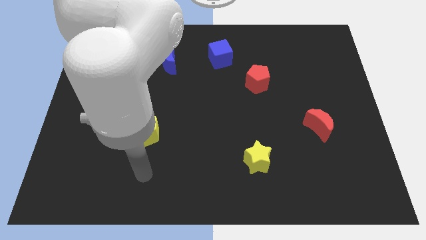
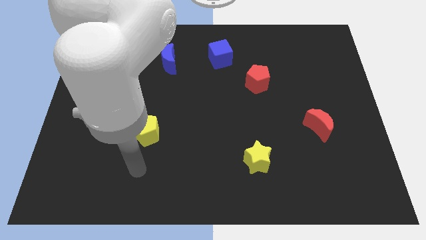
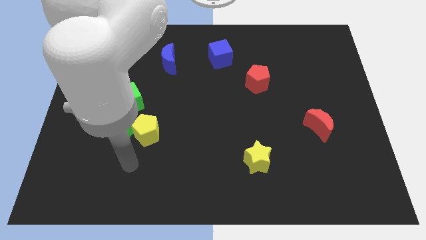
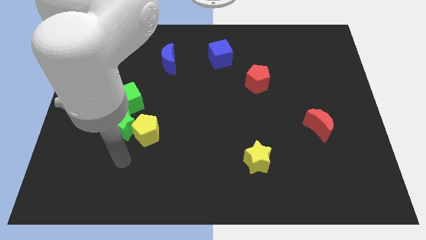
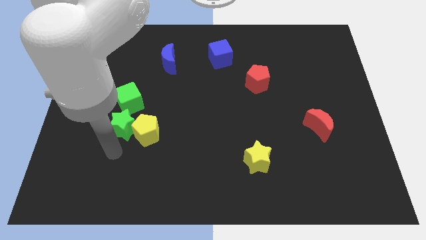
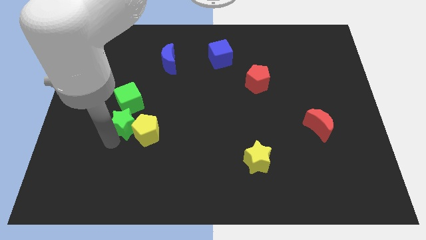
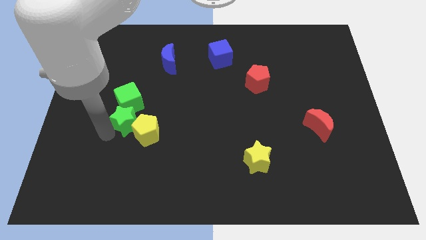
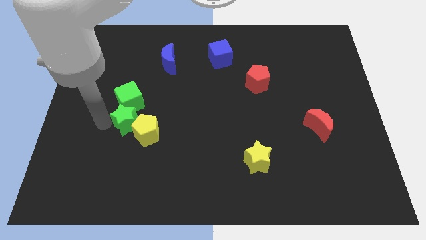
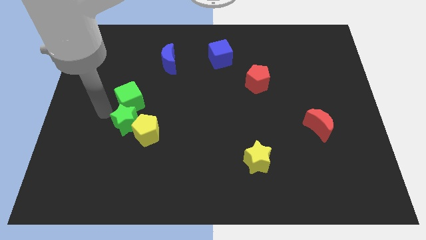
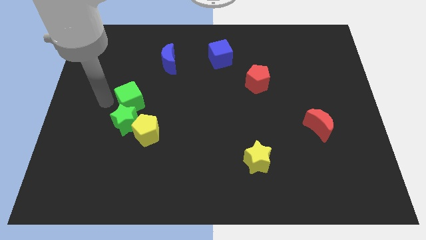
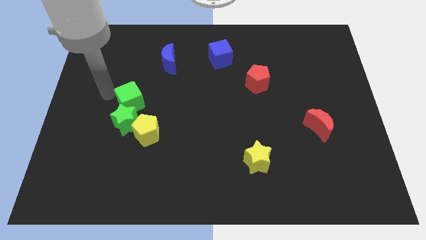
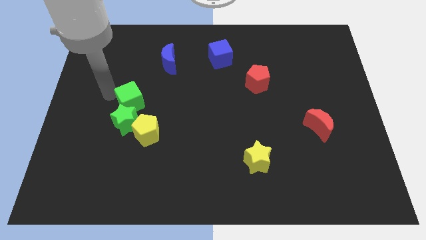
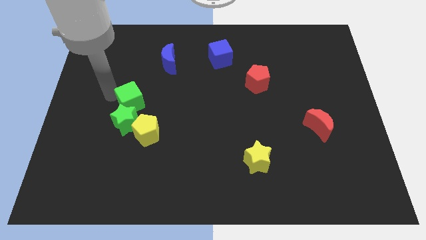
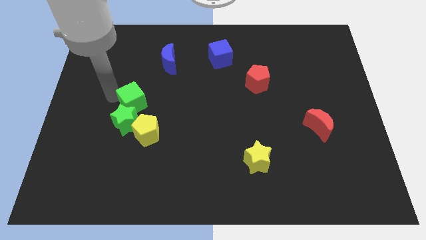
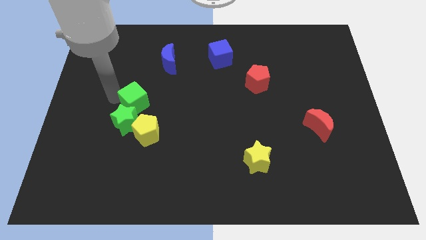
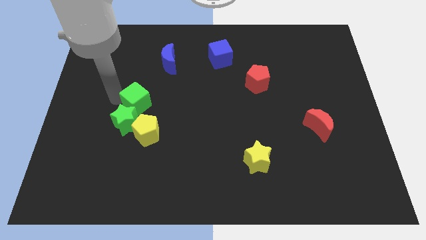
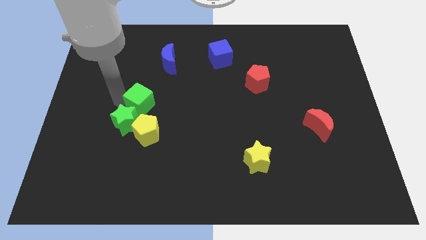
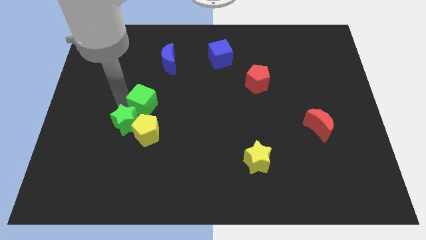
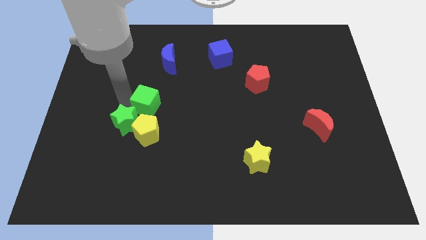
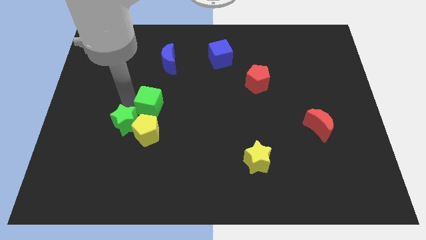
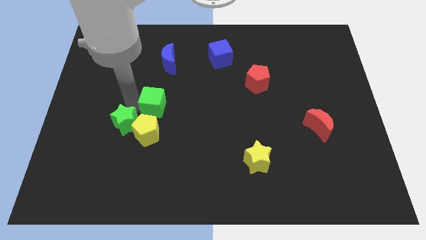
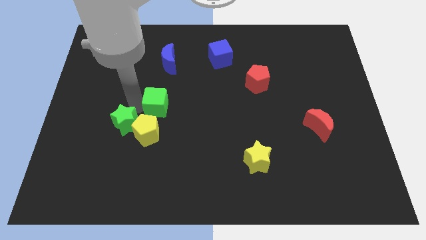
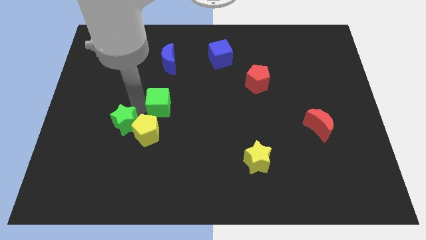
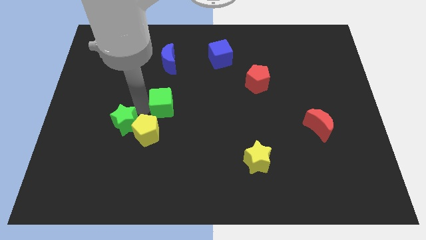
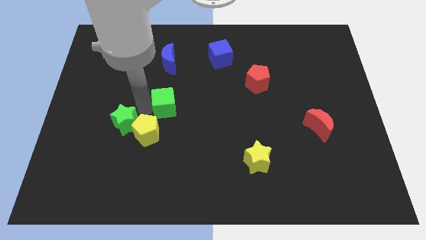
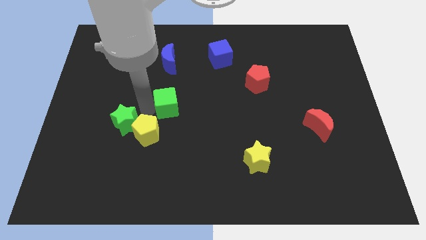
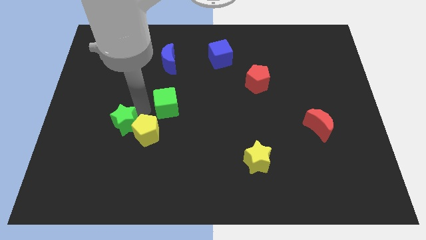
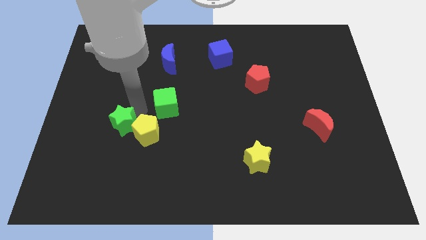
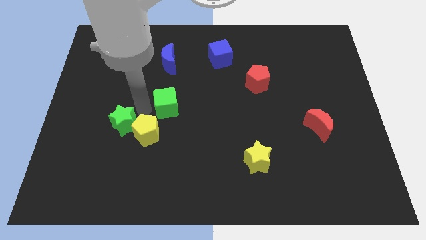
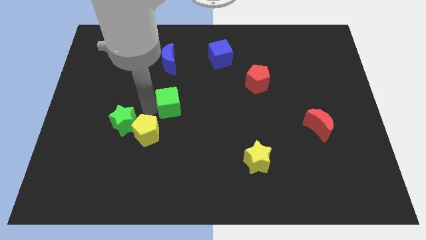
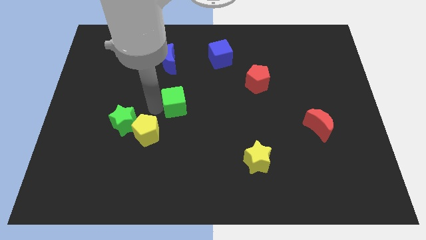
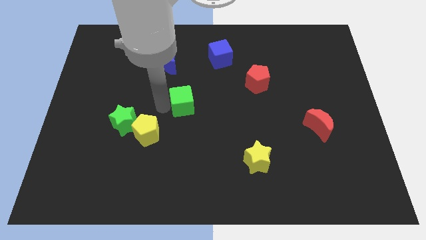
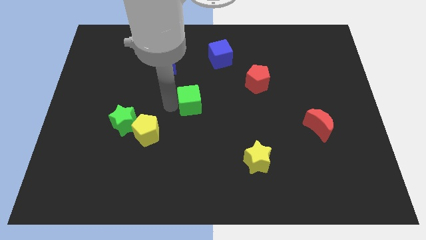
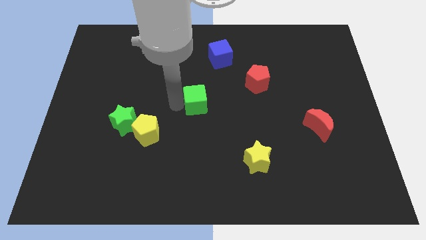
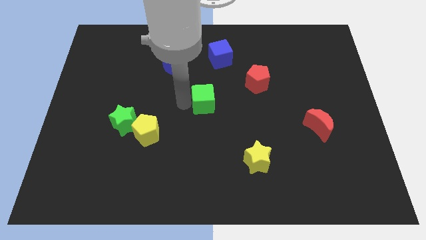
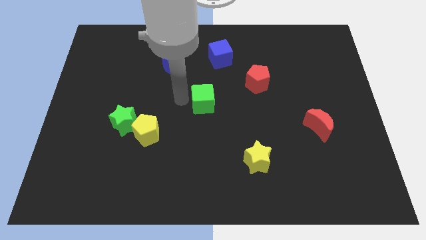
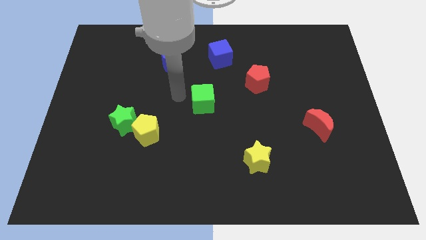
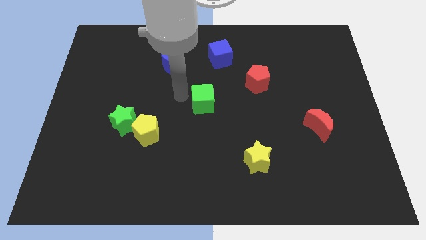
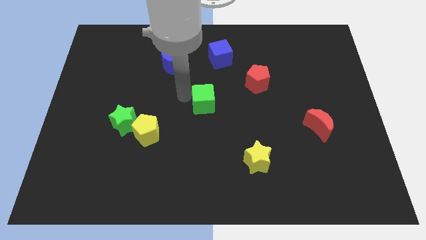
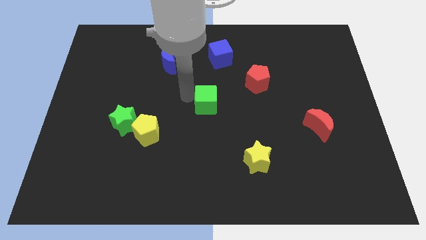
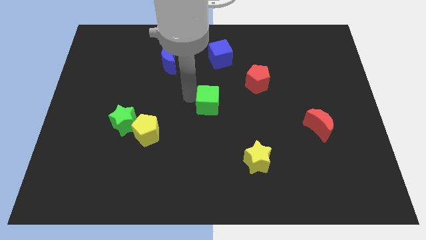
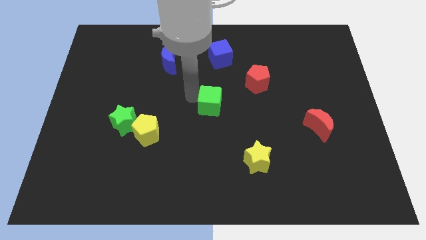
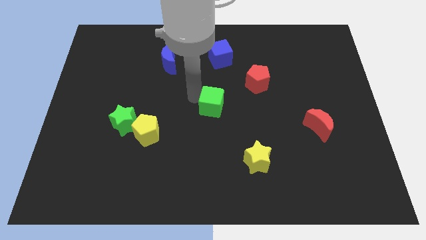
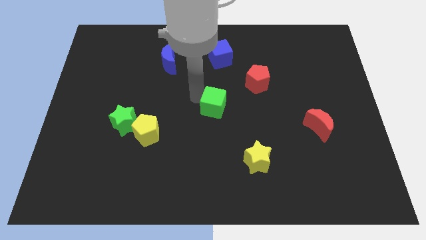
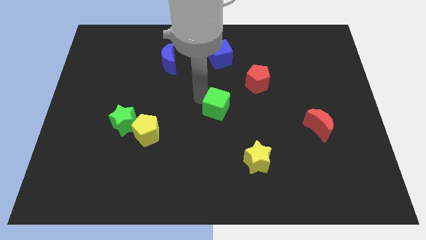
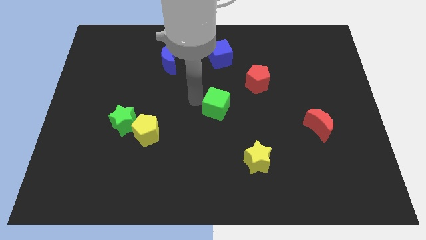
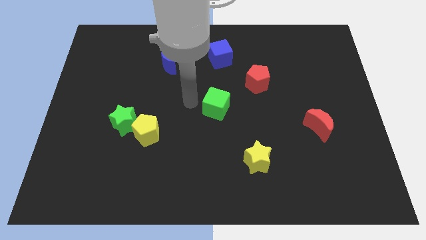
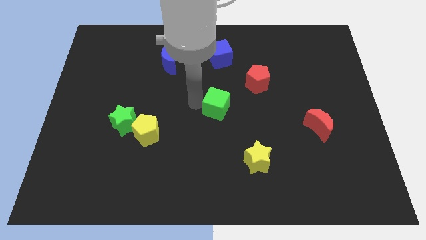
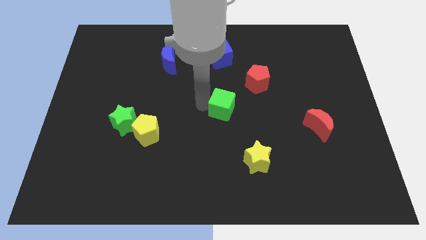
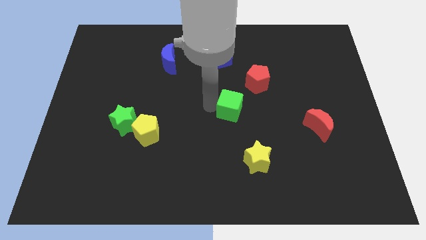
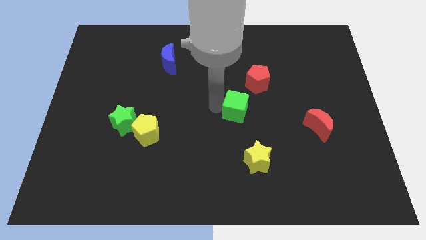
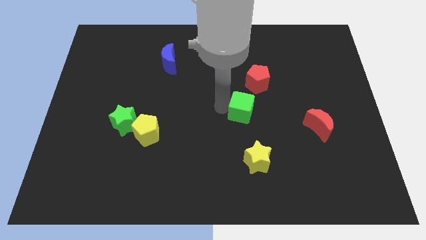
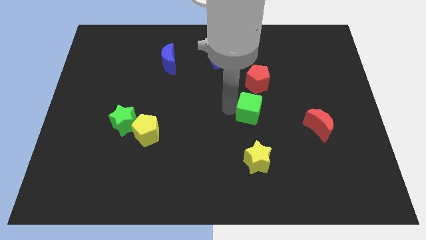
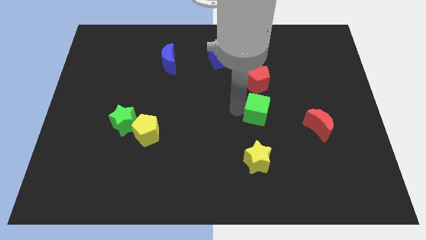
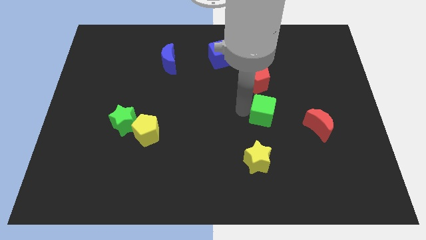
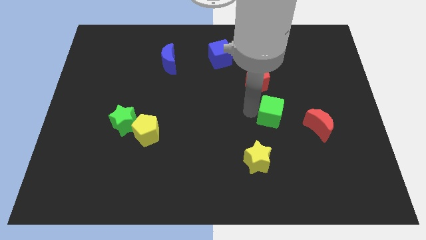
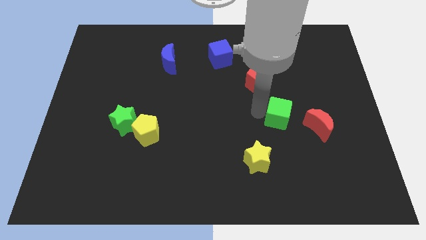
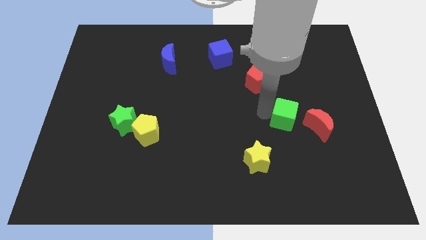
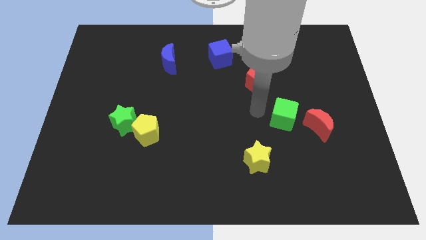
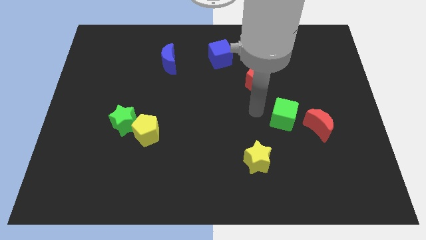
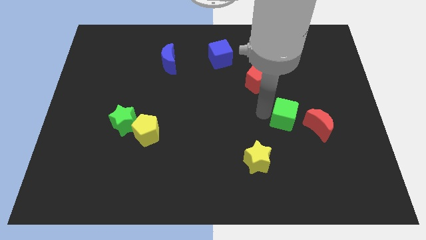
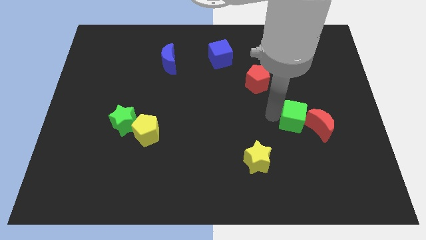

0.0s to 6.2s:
move the green cube next to the red moon

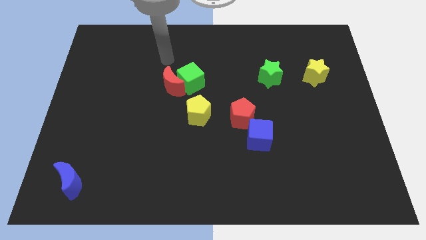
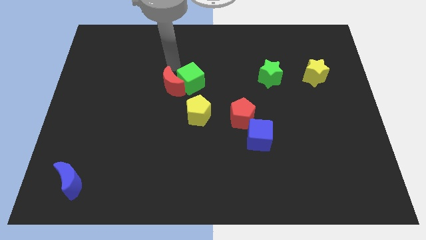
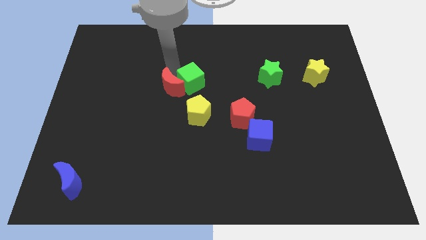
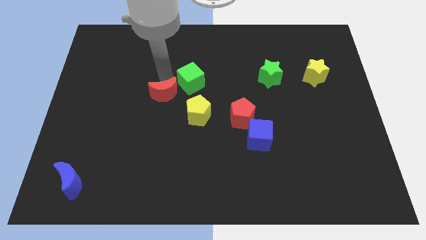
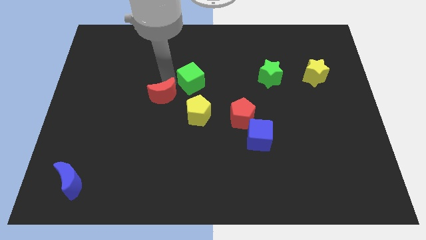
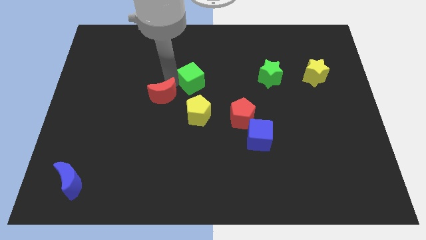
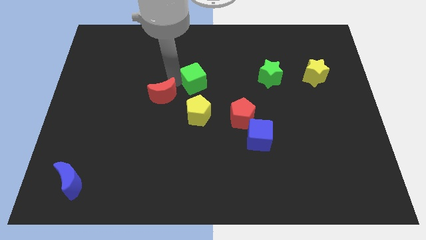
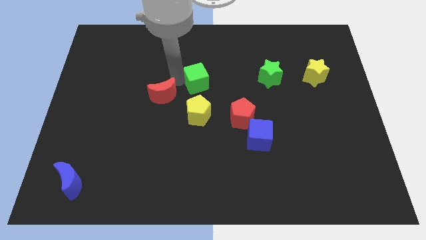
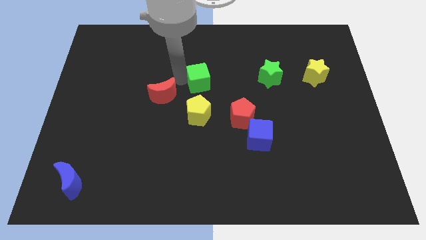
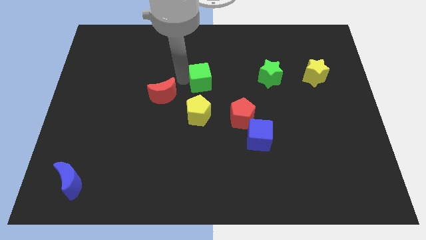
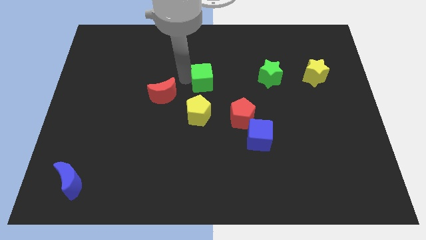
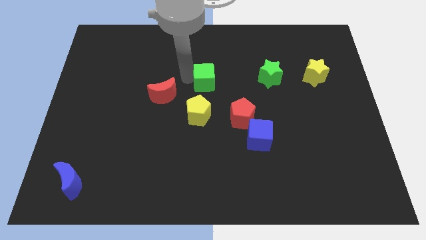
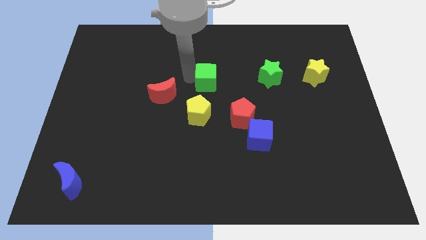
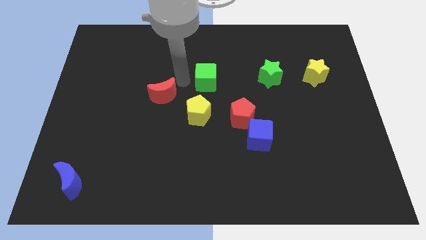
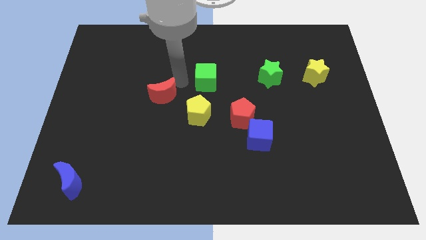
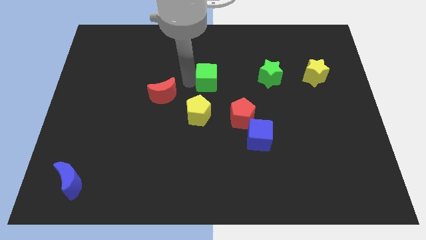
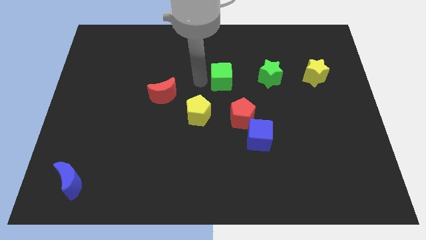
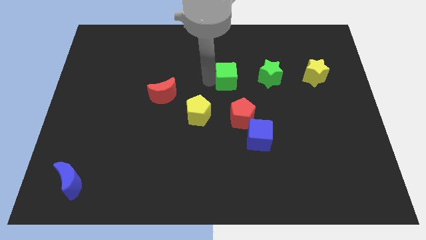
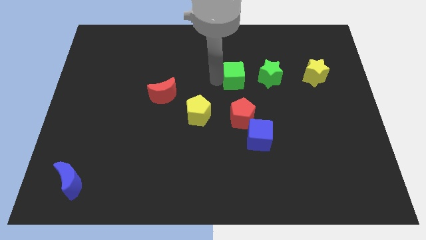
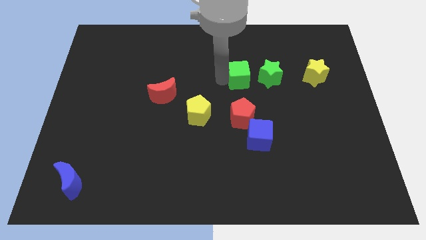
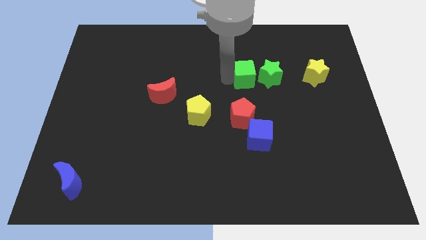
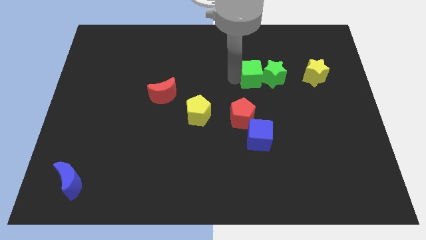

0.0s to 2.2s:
move the green cube towards the green star
